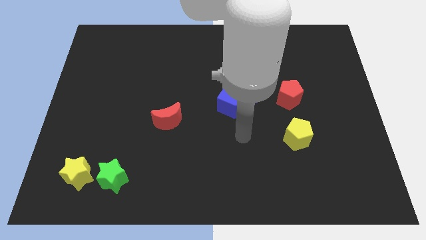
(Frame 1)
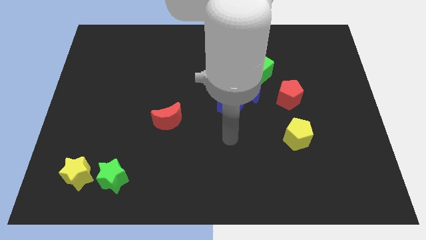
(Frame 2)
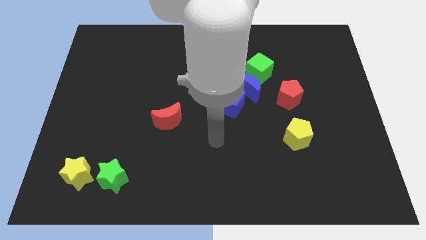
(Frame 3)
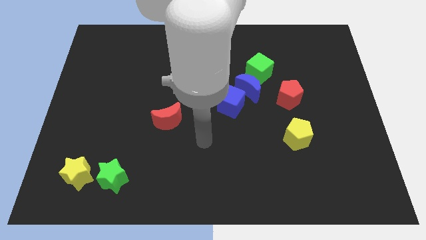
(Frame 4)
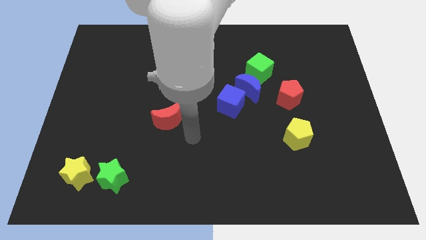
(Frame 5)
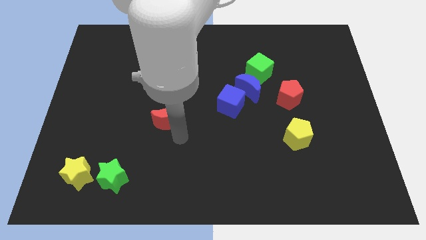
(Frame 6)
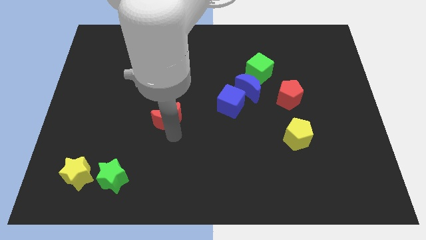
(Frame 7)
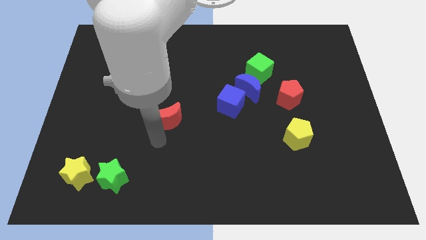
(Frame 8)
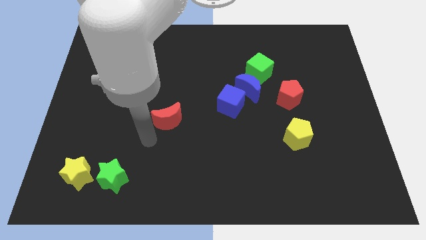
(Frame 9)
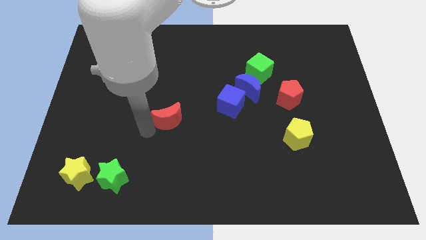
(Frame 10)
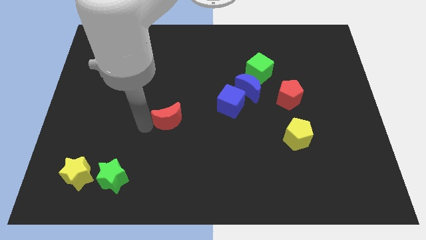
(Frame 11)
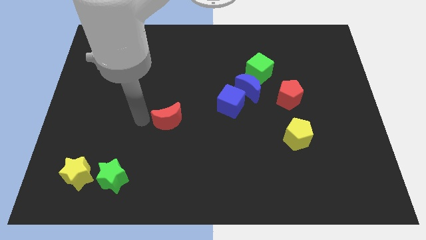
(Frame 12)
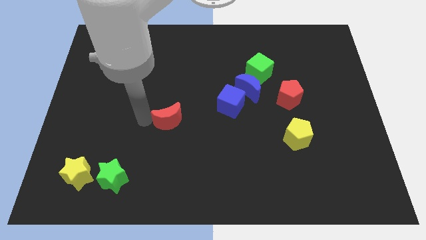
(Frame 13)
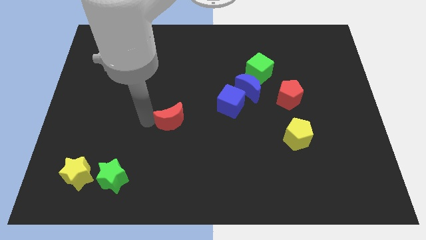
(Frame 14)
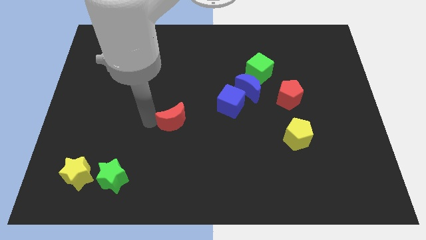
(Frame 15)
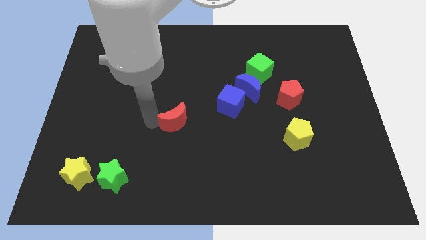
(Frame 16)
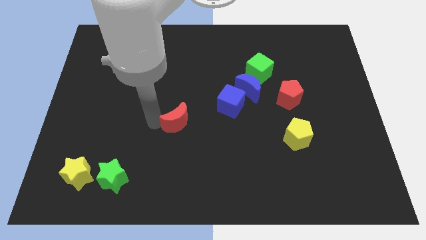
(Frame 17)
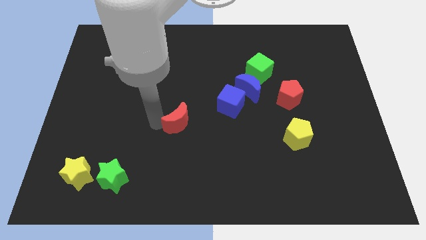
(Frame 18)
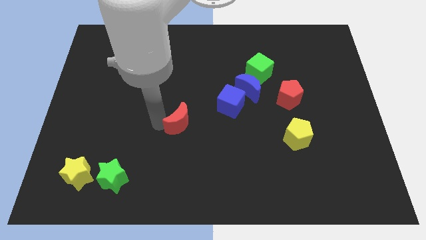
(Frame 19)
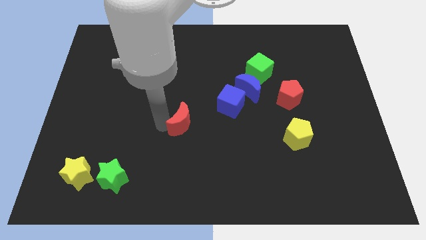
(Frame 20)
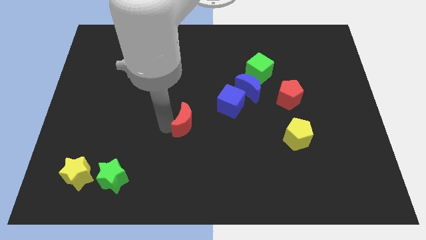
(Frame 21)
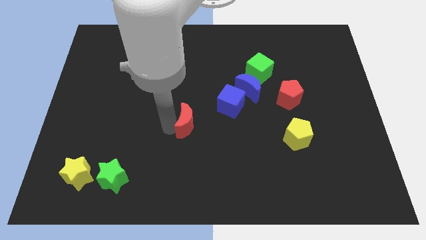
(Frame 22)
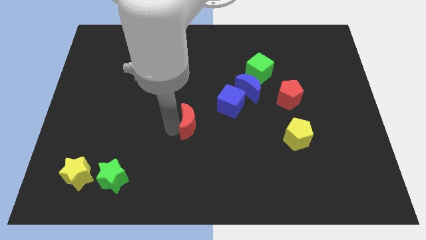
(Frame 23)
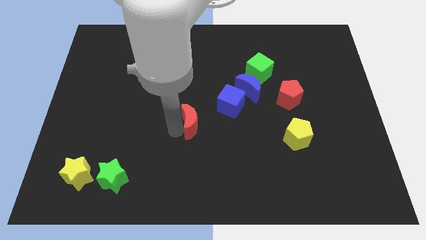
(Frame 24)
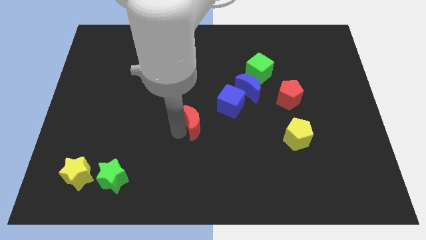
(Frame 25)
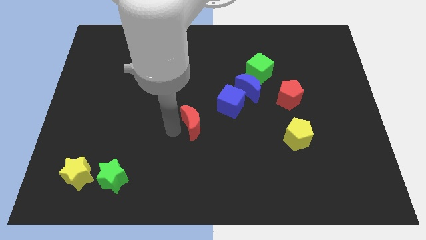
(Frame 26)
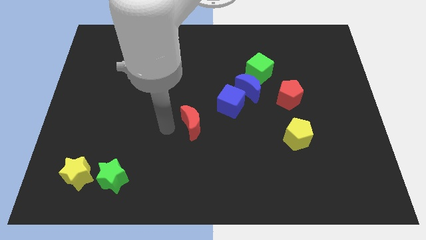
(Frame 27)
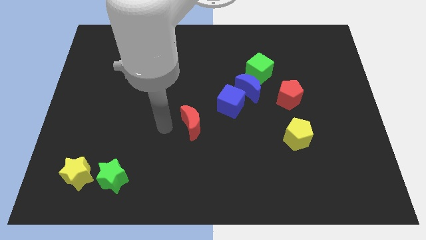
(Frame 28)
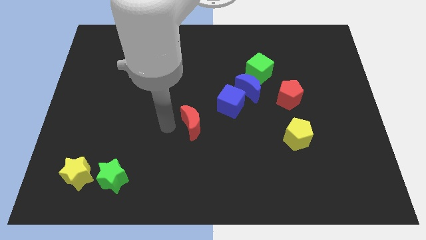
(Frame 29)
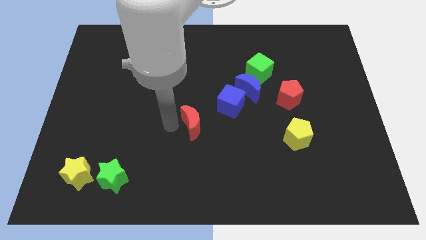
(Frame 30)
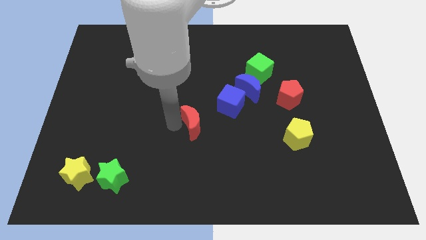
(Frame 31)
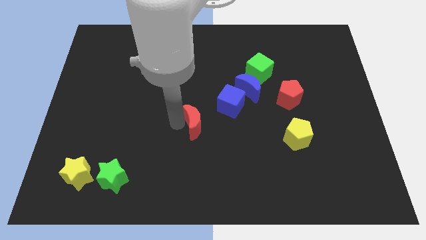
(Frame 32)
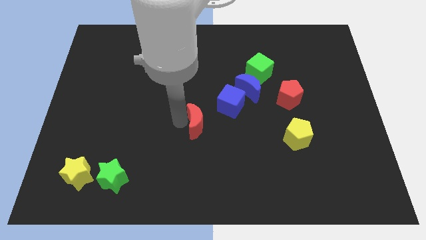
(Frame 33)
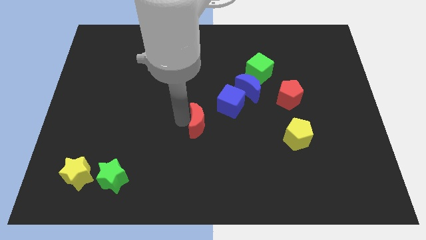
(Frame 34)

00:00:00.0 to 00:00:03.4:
push the red moon a little bit right

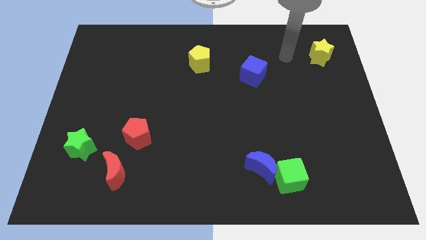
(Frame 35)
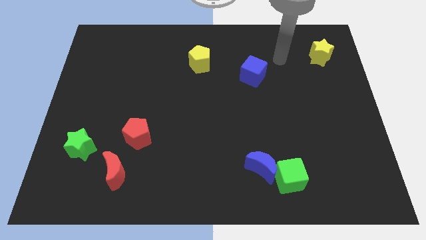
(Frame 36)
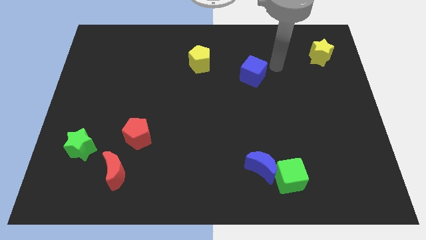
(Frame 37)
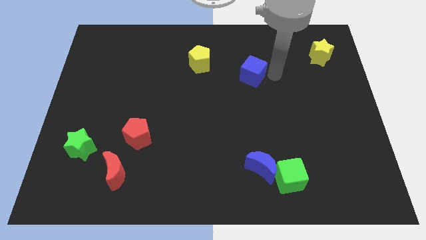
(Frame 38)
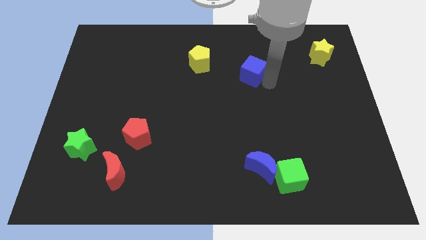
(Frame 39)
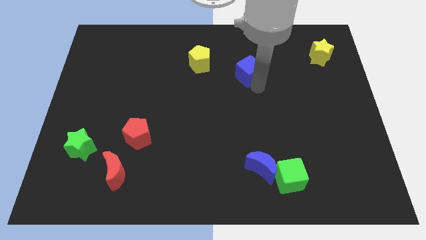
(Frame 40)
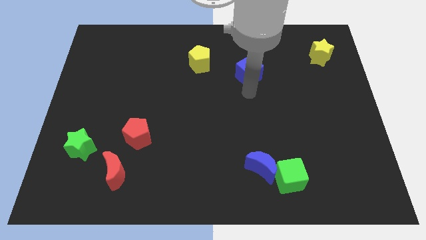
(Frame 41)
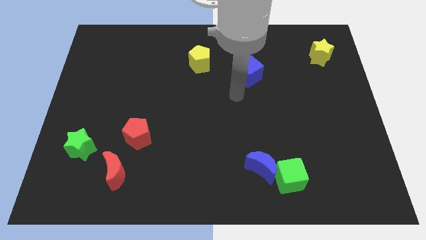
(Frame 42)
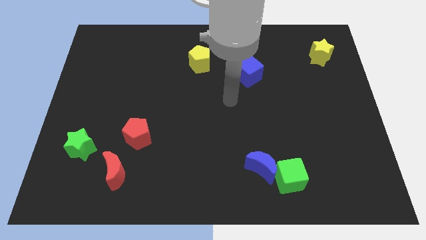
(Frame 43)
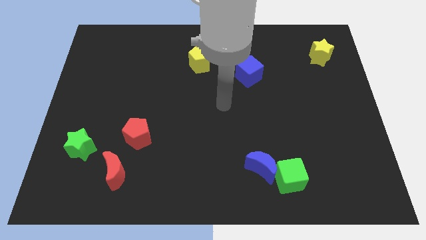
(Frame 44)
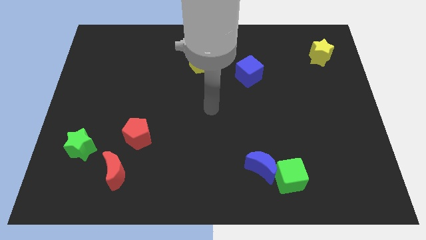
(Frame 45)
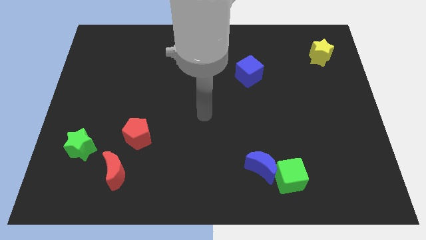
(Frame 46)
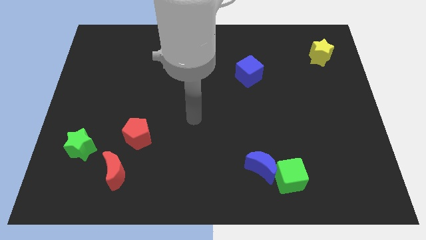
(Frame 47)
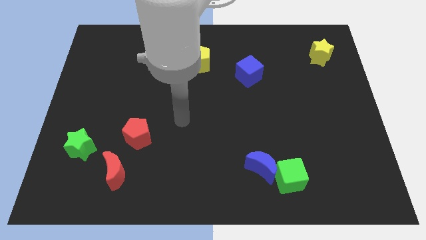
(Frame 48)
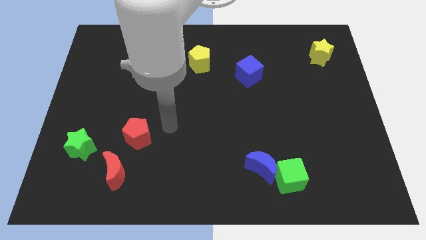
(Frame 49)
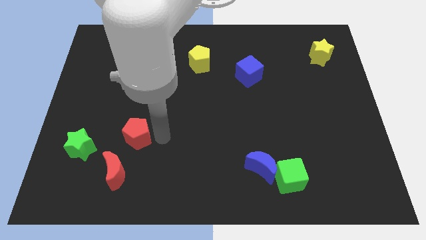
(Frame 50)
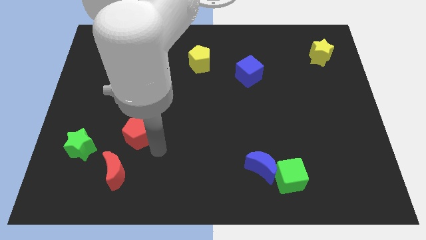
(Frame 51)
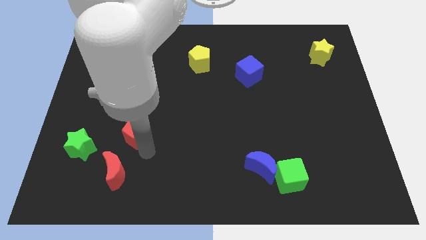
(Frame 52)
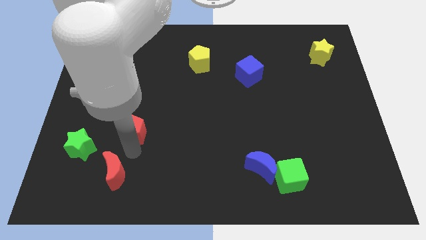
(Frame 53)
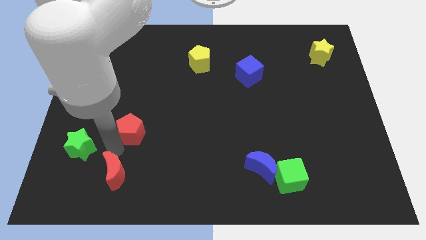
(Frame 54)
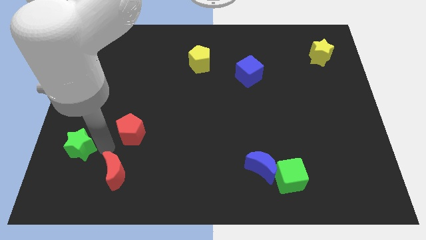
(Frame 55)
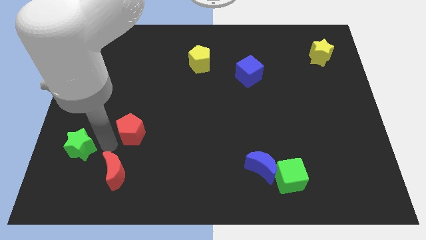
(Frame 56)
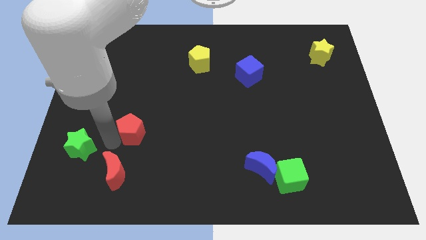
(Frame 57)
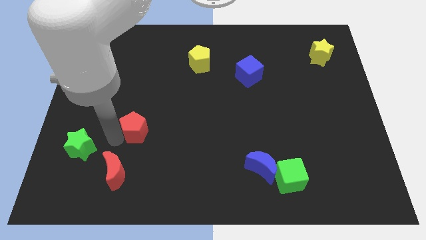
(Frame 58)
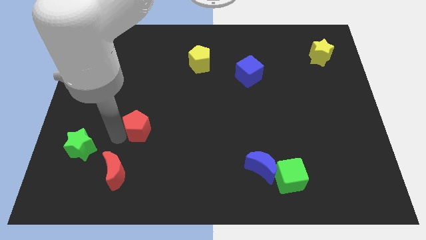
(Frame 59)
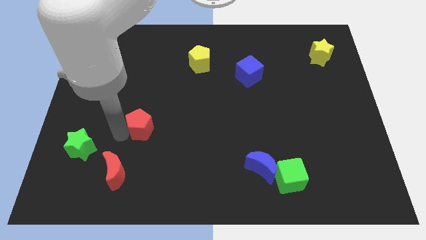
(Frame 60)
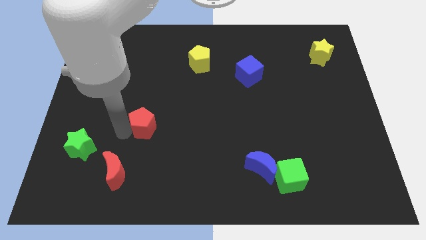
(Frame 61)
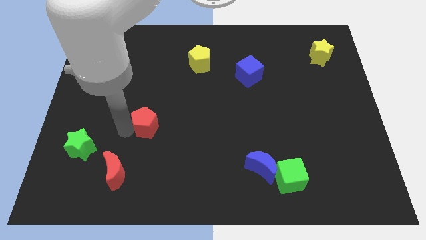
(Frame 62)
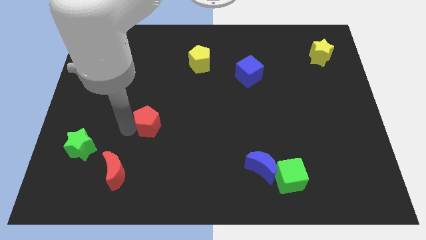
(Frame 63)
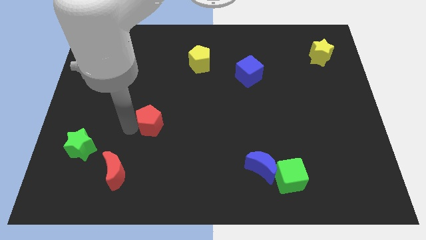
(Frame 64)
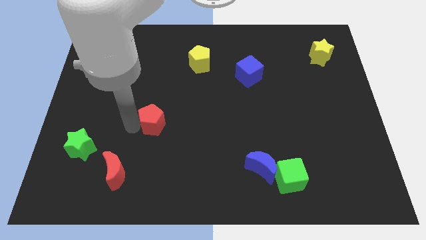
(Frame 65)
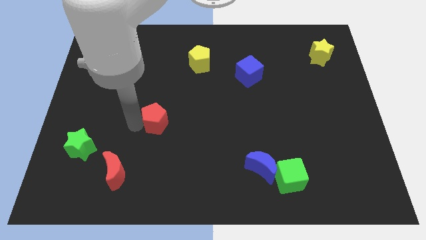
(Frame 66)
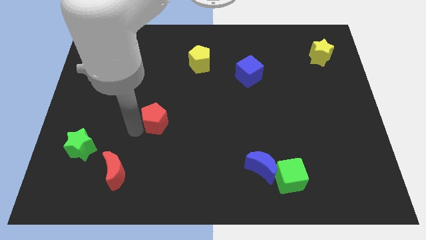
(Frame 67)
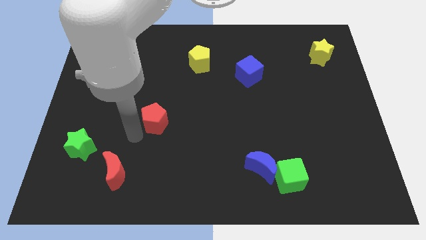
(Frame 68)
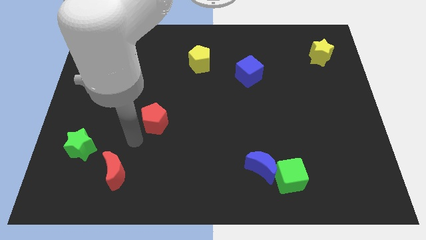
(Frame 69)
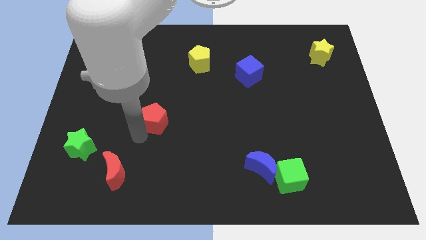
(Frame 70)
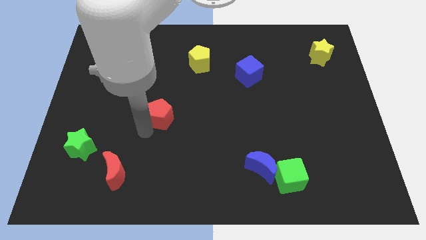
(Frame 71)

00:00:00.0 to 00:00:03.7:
slightly push the red pentagon upwards and to the right diagonally

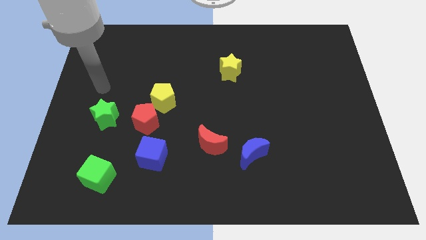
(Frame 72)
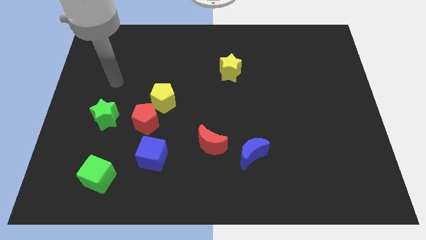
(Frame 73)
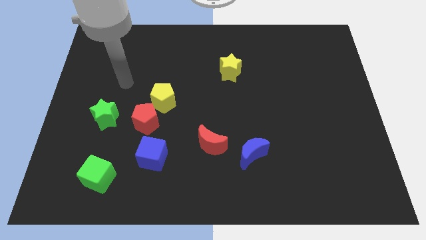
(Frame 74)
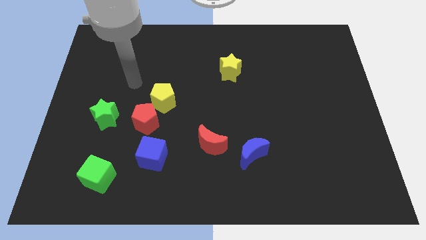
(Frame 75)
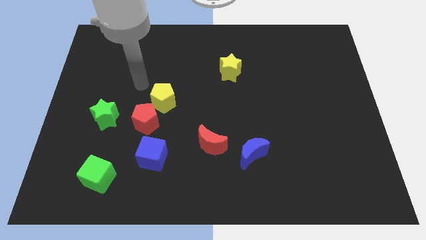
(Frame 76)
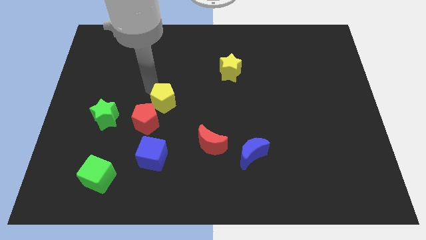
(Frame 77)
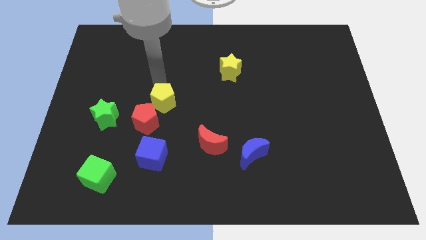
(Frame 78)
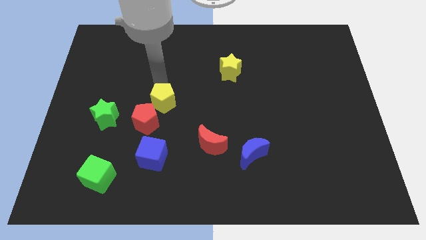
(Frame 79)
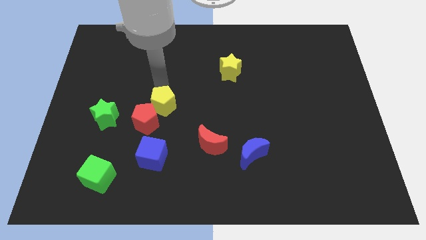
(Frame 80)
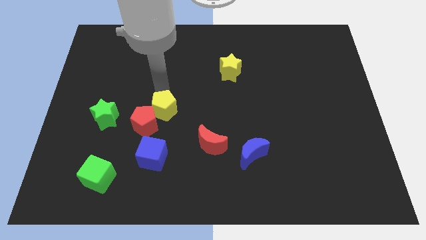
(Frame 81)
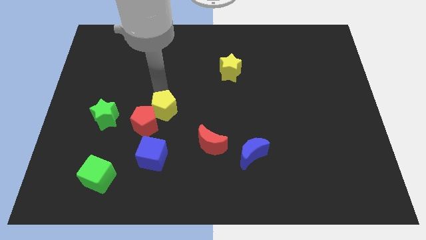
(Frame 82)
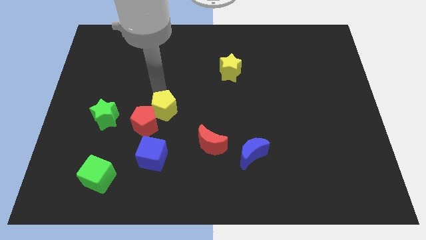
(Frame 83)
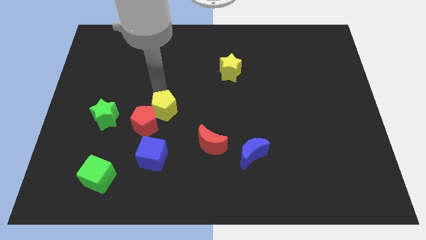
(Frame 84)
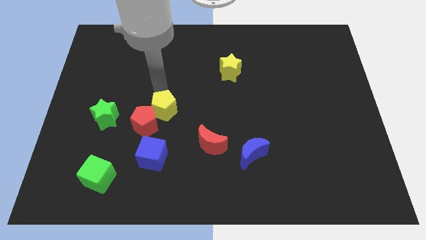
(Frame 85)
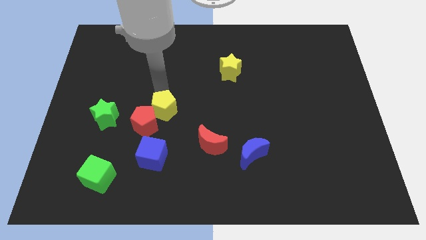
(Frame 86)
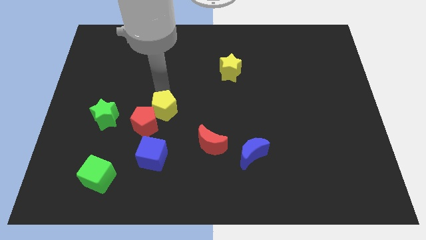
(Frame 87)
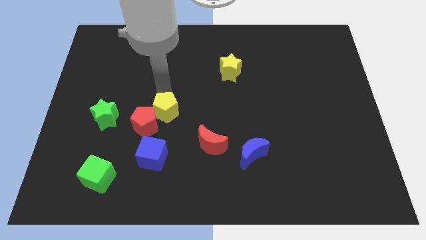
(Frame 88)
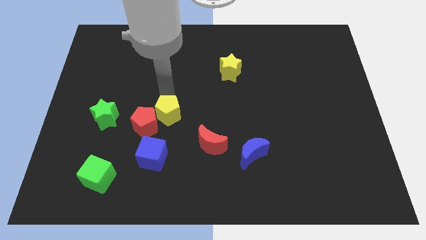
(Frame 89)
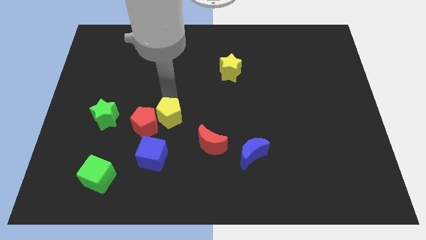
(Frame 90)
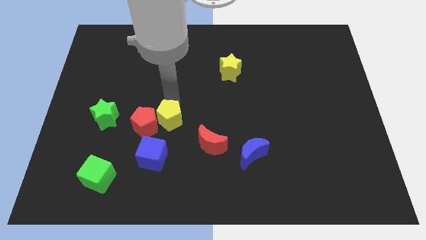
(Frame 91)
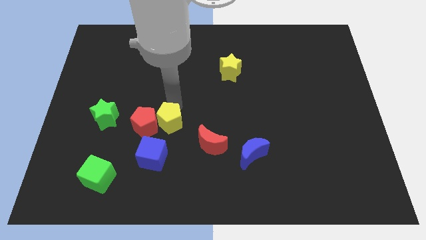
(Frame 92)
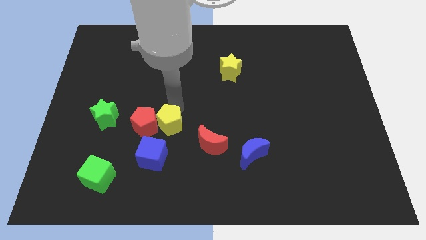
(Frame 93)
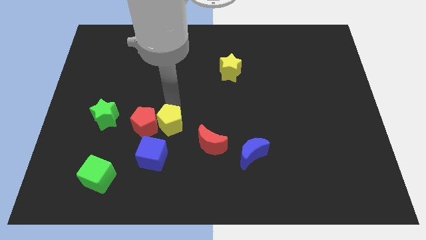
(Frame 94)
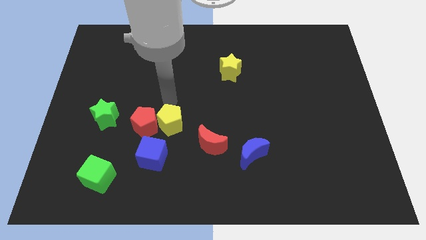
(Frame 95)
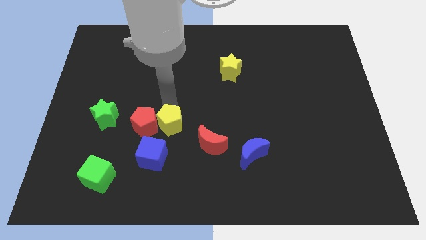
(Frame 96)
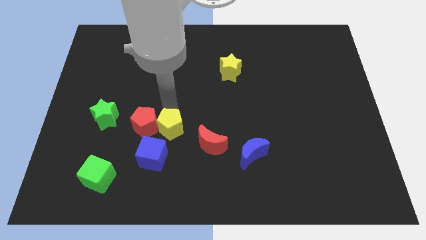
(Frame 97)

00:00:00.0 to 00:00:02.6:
slightly push the yellow pentagon downwards
